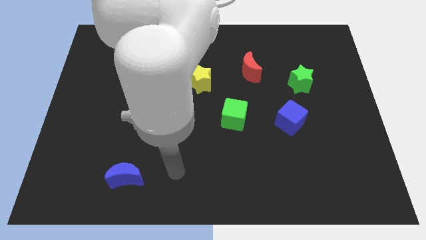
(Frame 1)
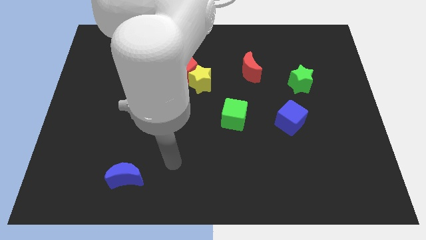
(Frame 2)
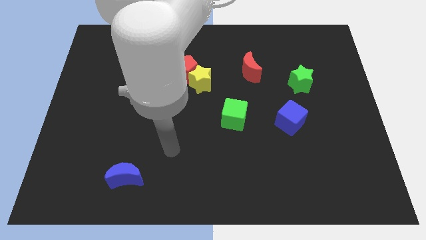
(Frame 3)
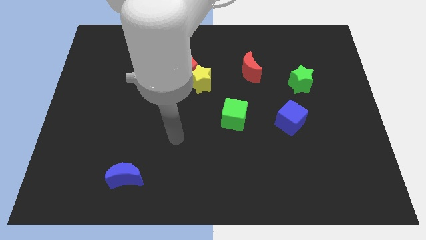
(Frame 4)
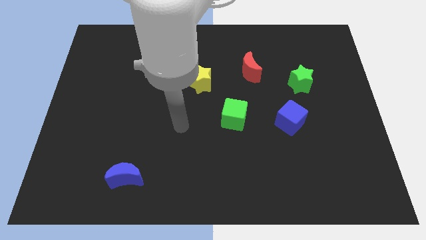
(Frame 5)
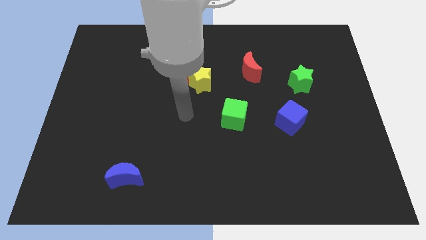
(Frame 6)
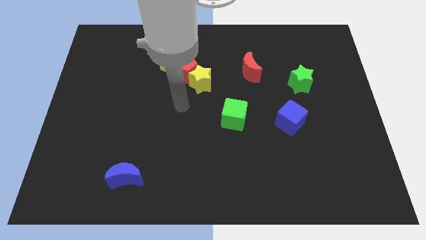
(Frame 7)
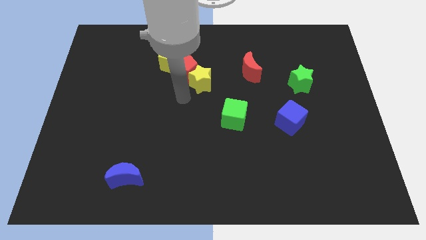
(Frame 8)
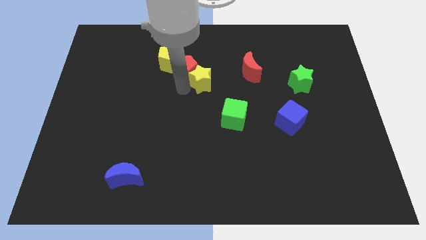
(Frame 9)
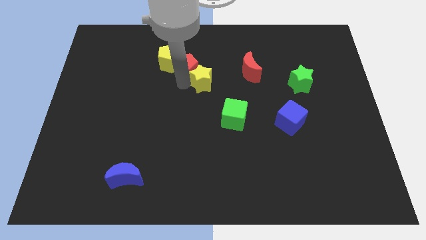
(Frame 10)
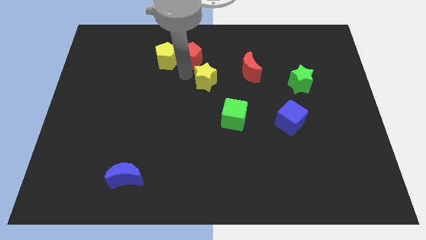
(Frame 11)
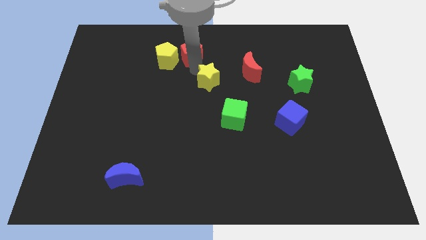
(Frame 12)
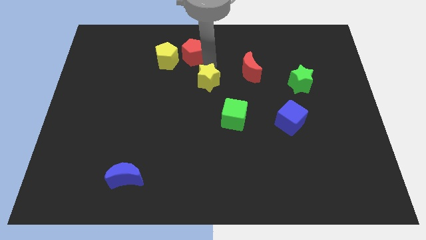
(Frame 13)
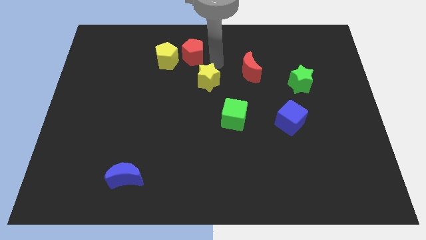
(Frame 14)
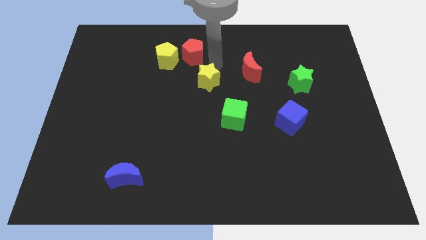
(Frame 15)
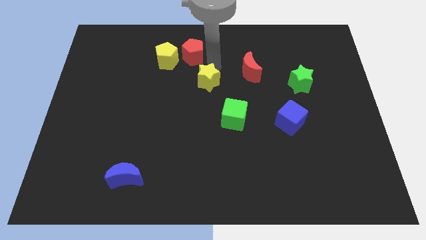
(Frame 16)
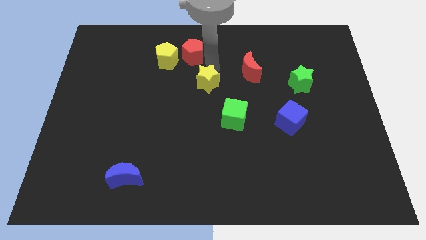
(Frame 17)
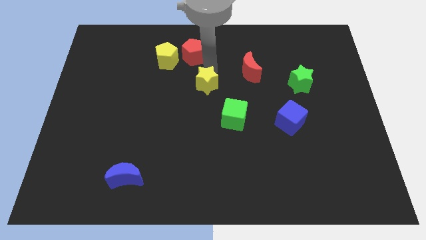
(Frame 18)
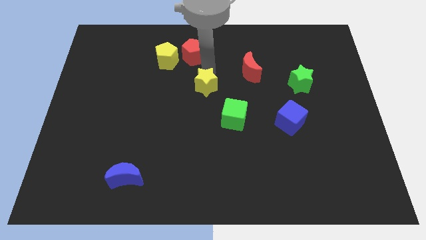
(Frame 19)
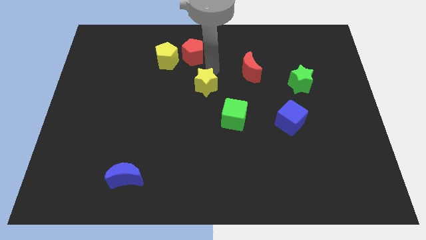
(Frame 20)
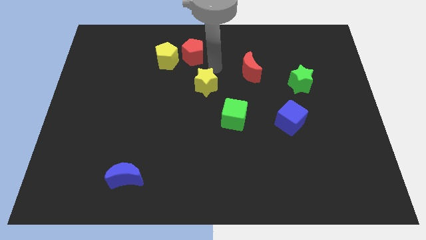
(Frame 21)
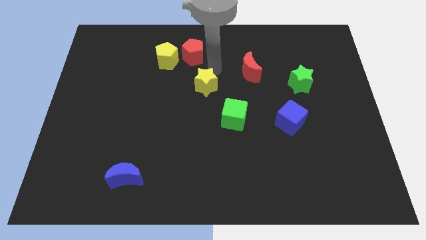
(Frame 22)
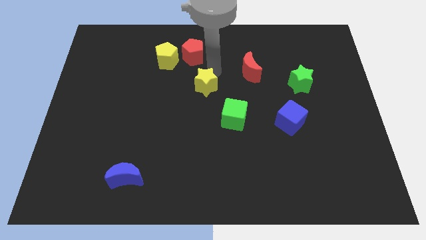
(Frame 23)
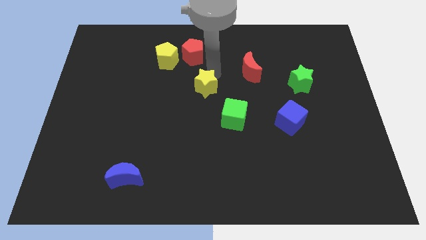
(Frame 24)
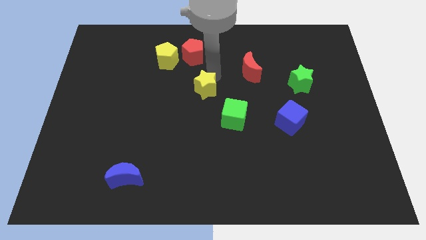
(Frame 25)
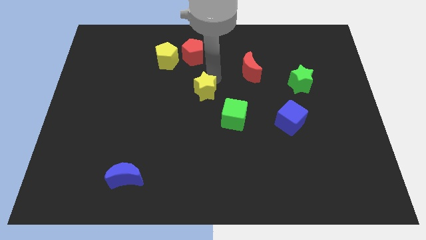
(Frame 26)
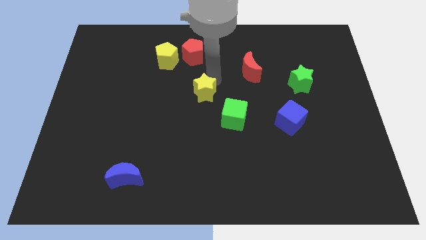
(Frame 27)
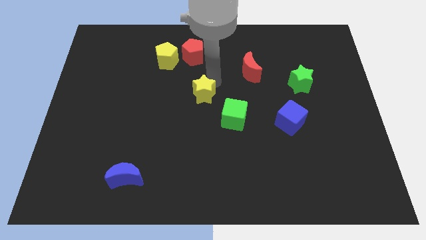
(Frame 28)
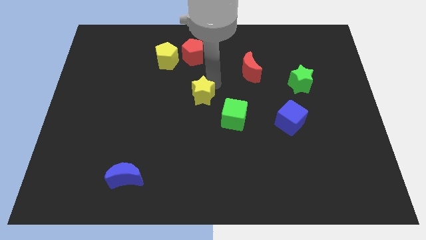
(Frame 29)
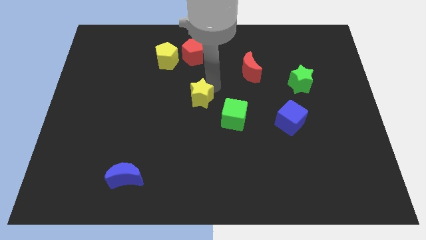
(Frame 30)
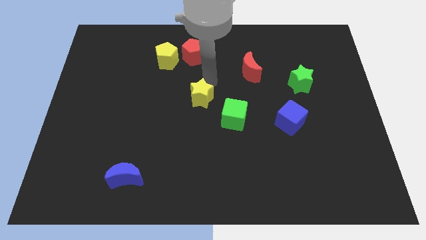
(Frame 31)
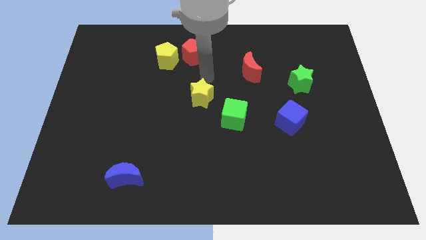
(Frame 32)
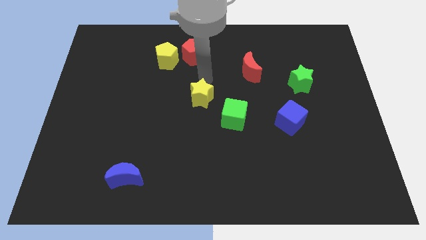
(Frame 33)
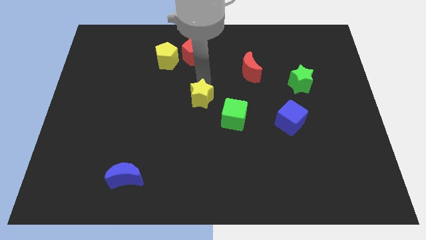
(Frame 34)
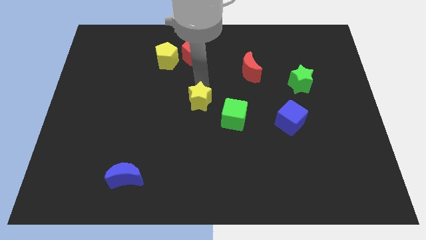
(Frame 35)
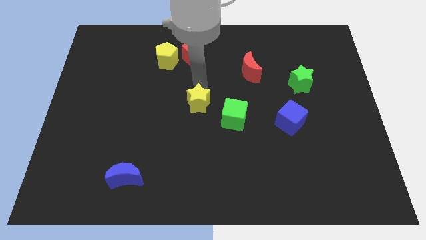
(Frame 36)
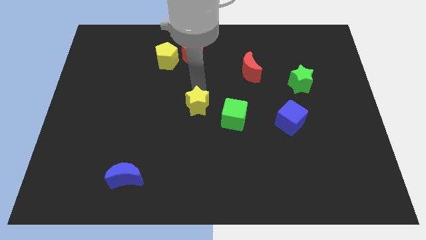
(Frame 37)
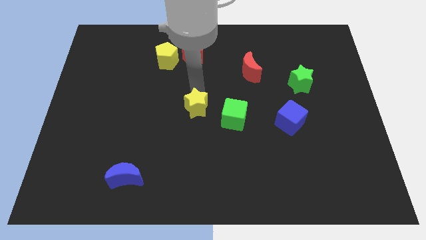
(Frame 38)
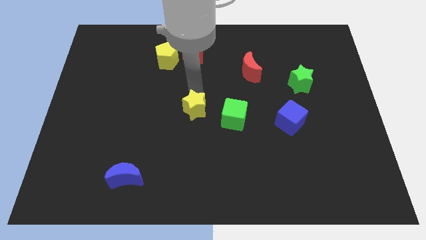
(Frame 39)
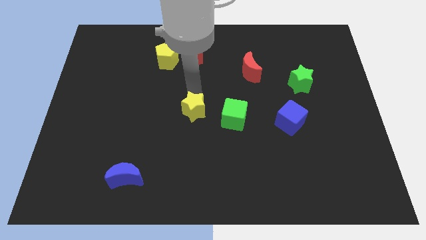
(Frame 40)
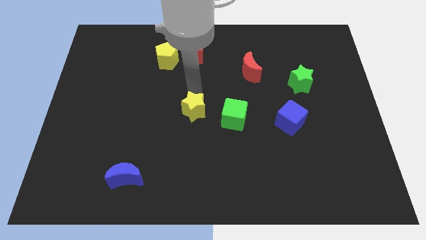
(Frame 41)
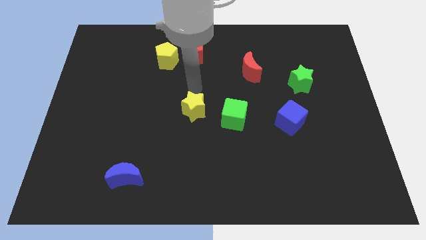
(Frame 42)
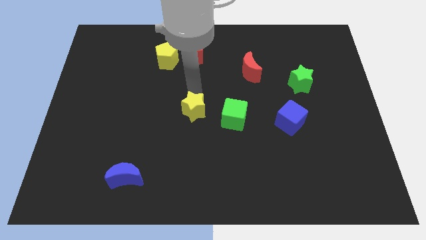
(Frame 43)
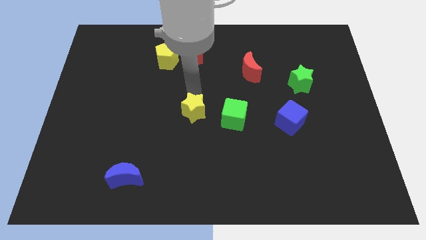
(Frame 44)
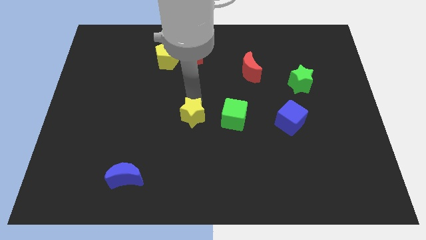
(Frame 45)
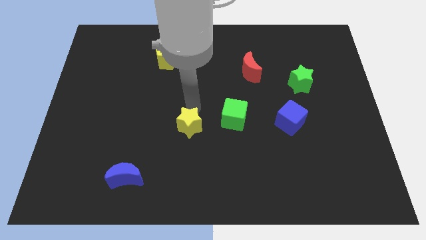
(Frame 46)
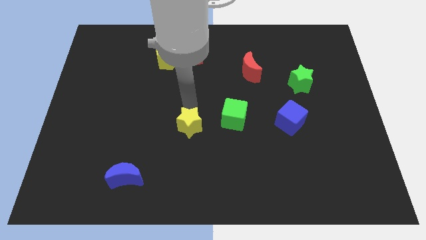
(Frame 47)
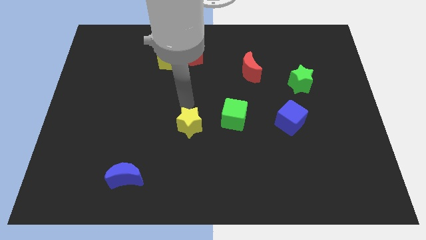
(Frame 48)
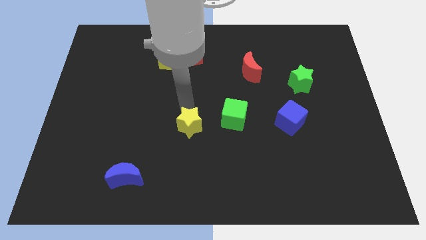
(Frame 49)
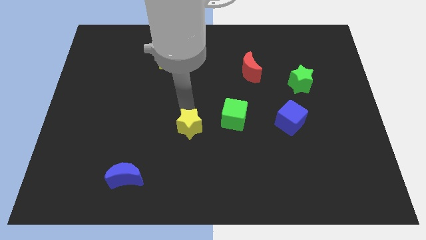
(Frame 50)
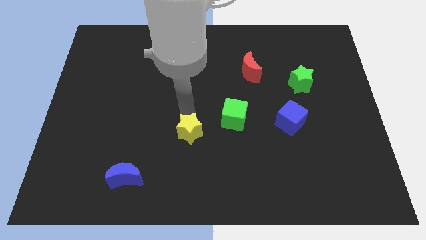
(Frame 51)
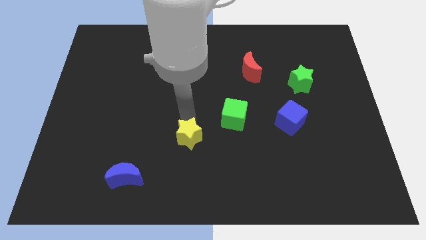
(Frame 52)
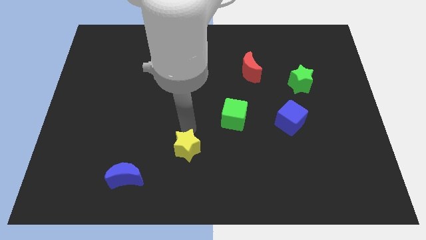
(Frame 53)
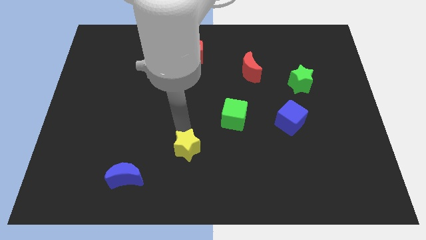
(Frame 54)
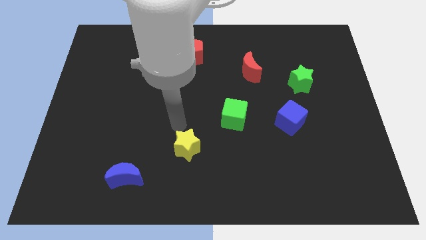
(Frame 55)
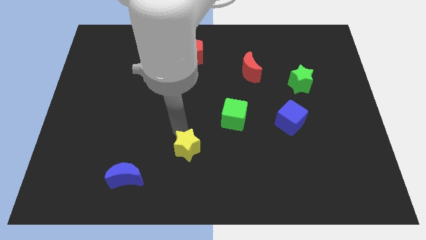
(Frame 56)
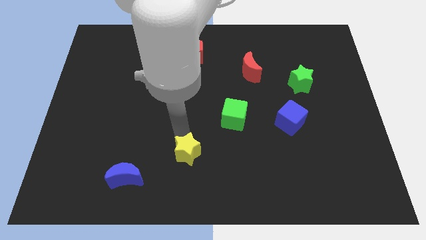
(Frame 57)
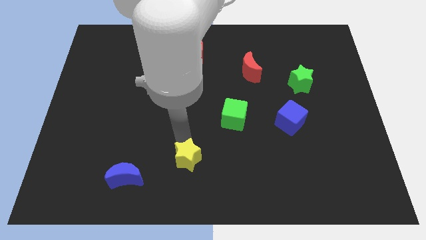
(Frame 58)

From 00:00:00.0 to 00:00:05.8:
move the yellow star to the bottom side

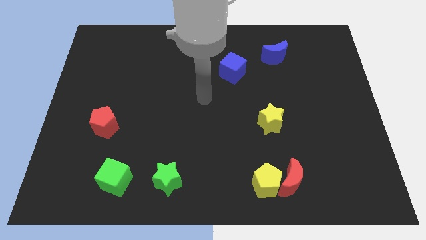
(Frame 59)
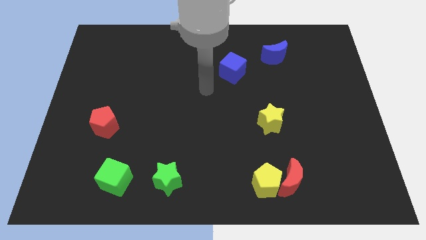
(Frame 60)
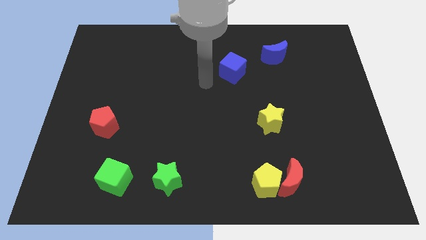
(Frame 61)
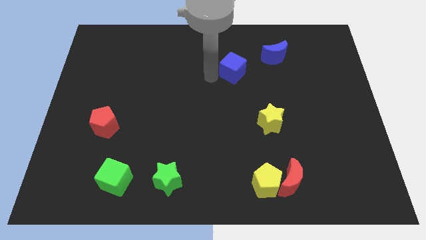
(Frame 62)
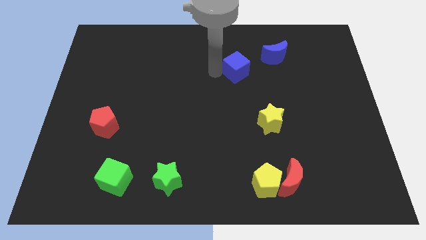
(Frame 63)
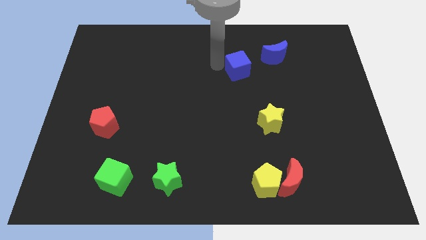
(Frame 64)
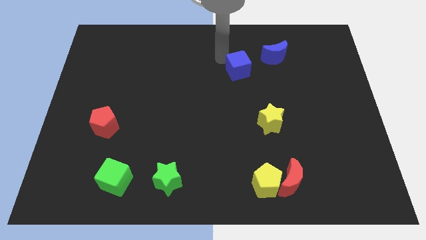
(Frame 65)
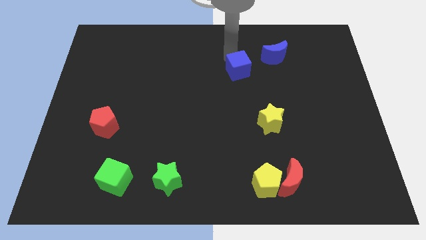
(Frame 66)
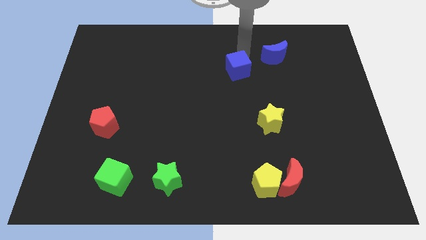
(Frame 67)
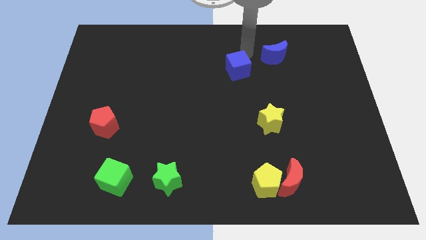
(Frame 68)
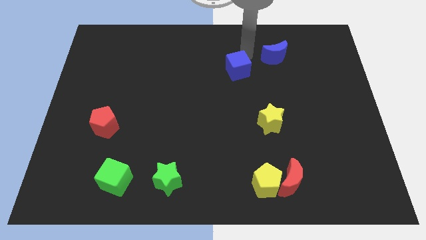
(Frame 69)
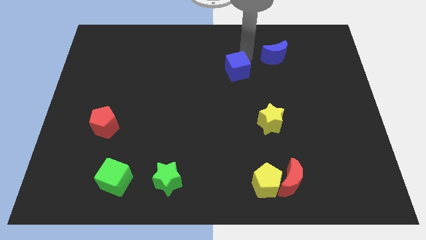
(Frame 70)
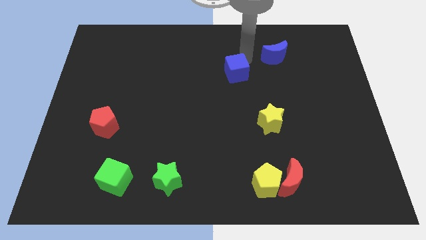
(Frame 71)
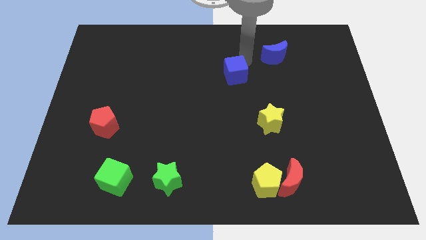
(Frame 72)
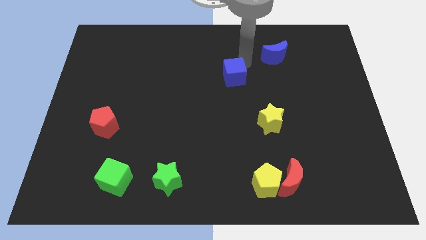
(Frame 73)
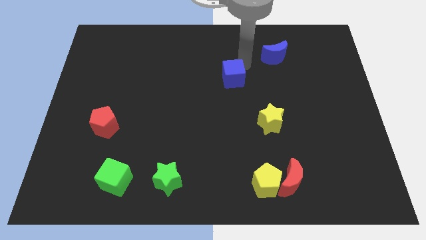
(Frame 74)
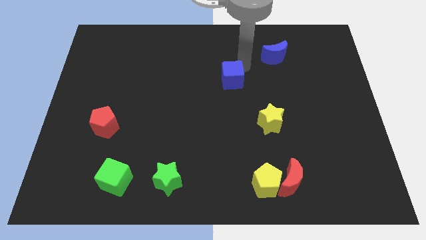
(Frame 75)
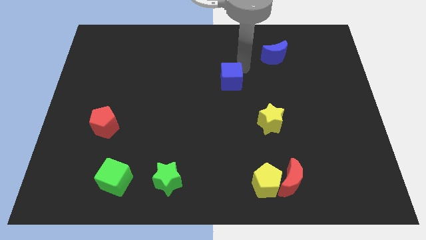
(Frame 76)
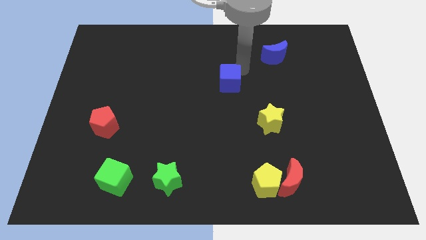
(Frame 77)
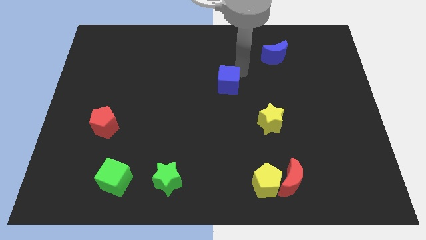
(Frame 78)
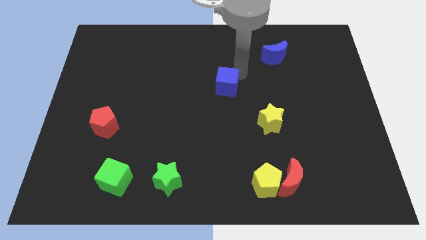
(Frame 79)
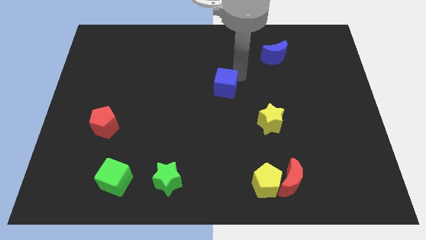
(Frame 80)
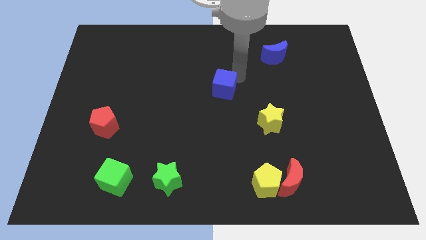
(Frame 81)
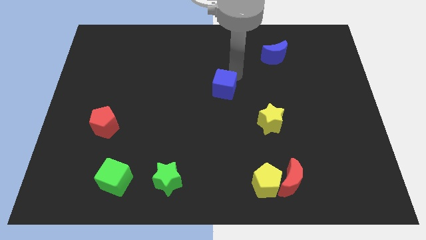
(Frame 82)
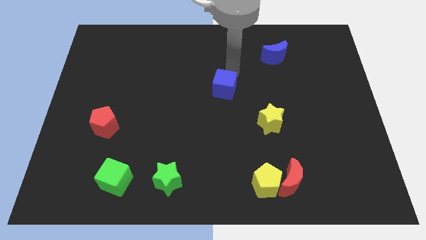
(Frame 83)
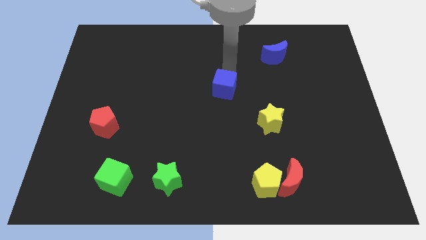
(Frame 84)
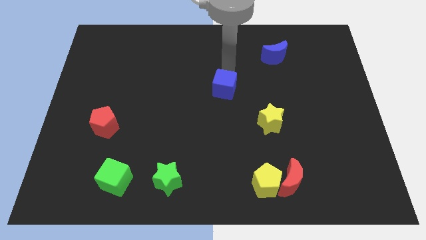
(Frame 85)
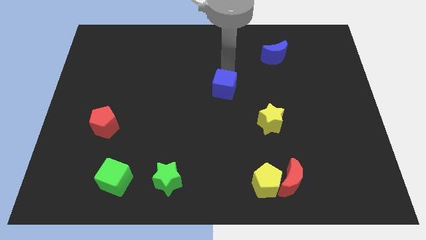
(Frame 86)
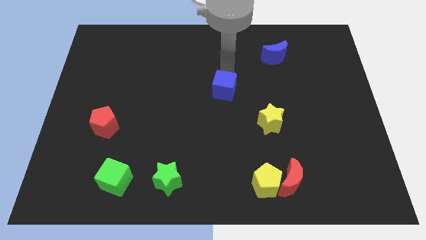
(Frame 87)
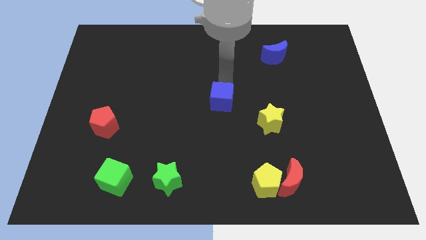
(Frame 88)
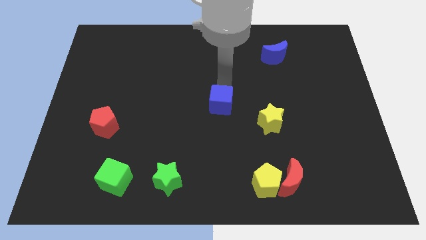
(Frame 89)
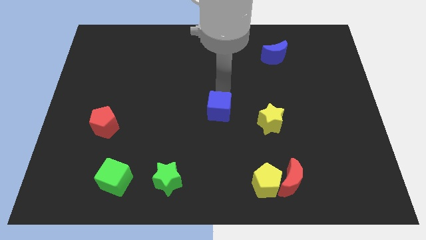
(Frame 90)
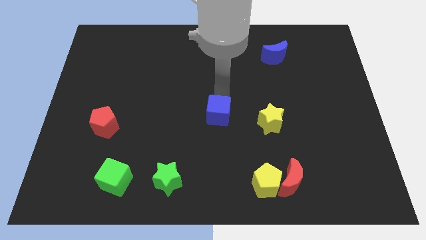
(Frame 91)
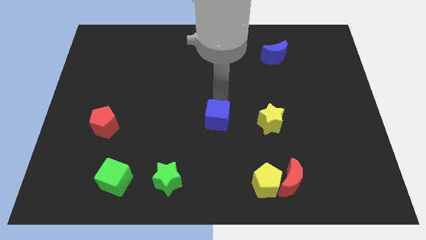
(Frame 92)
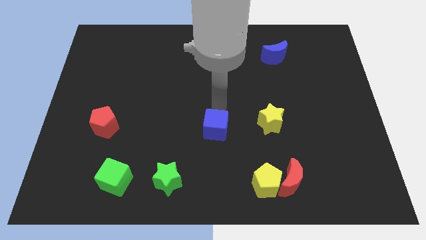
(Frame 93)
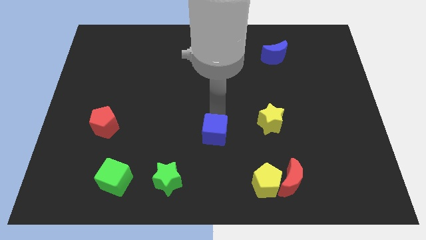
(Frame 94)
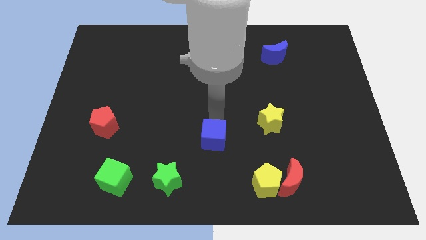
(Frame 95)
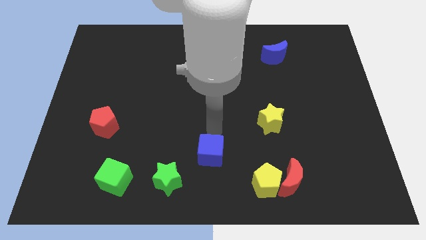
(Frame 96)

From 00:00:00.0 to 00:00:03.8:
slide the blue cube to the bottom side
